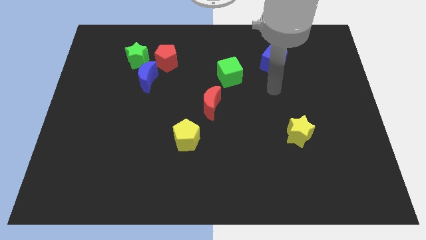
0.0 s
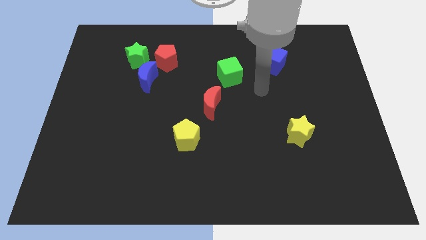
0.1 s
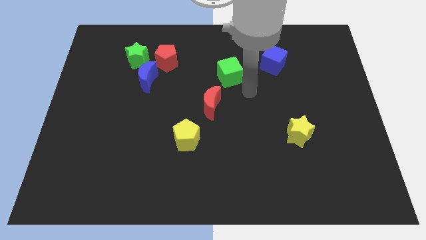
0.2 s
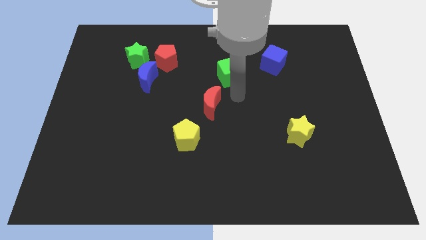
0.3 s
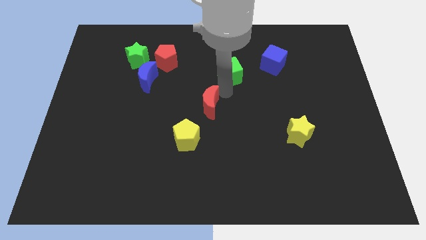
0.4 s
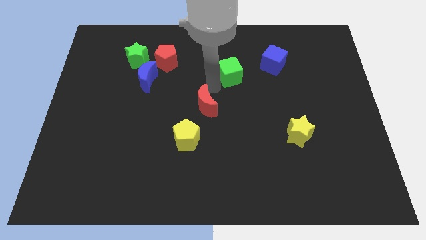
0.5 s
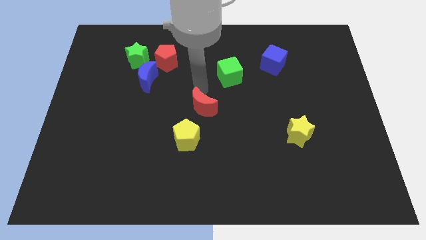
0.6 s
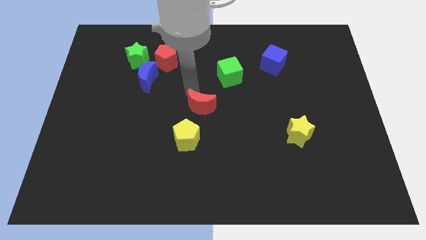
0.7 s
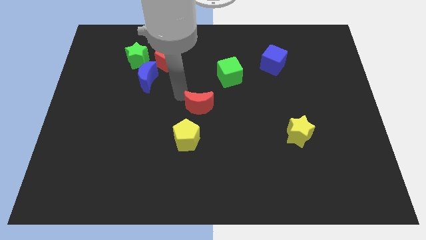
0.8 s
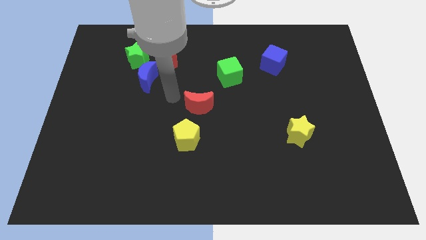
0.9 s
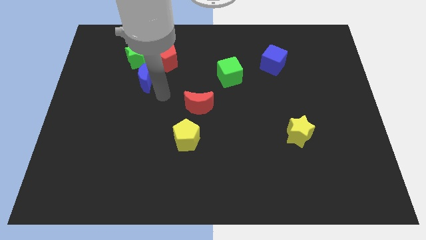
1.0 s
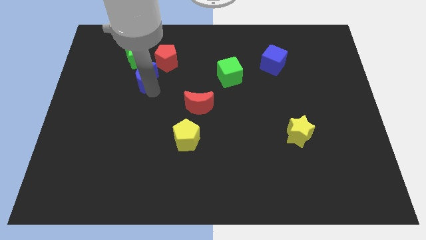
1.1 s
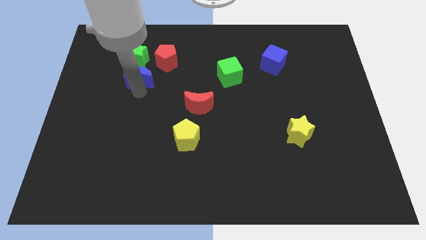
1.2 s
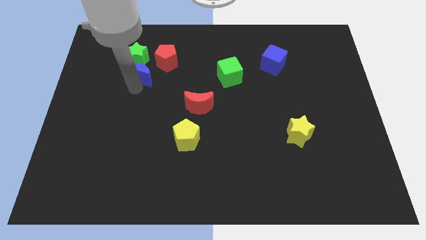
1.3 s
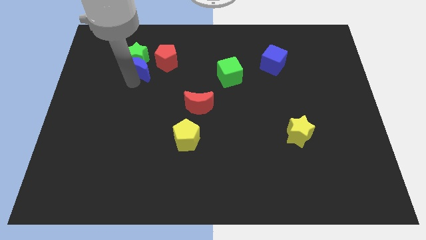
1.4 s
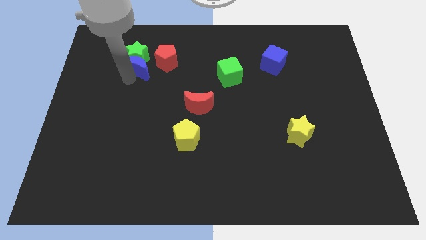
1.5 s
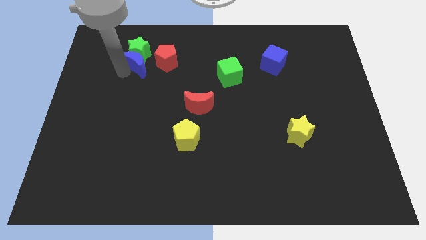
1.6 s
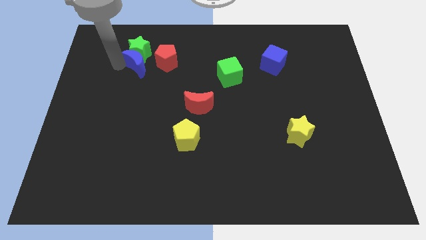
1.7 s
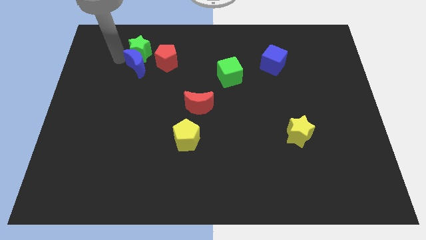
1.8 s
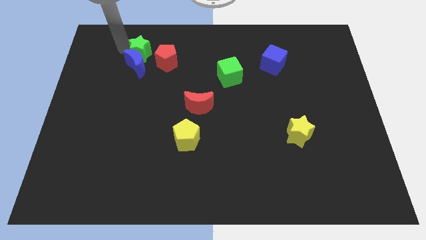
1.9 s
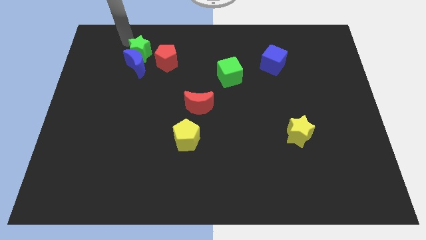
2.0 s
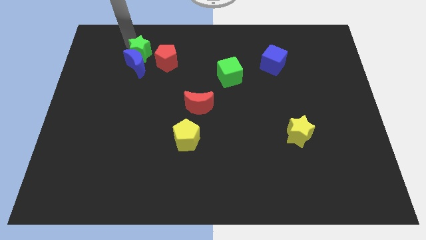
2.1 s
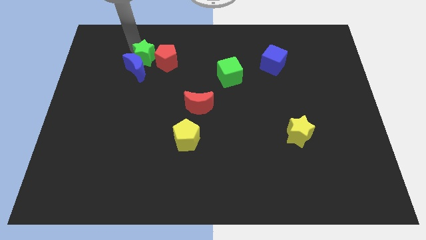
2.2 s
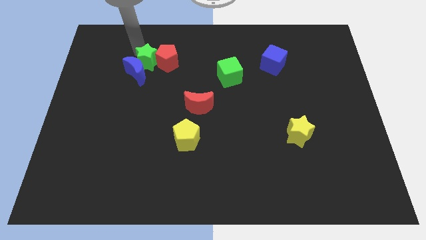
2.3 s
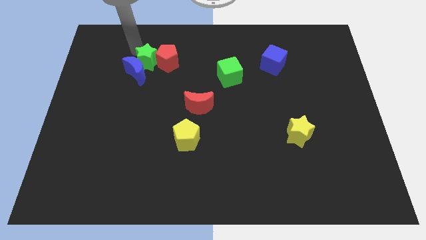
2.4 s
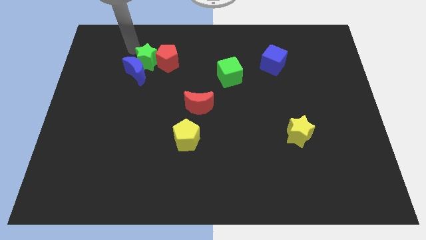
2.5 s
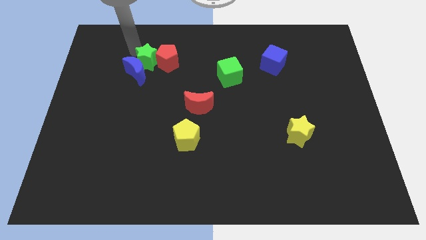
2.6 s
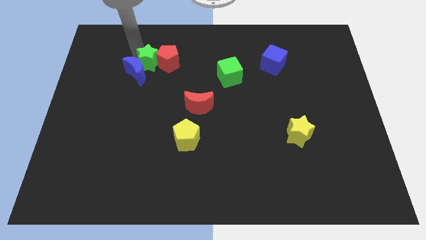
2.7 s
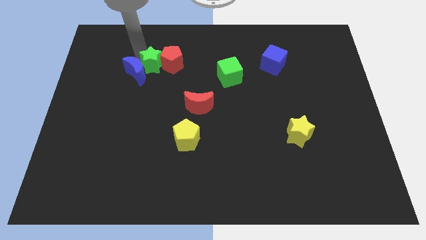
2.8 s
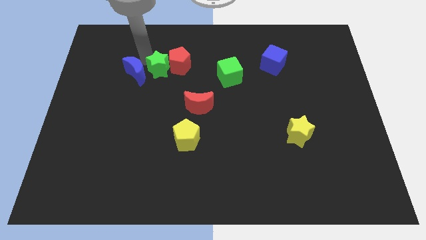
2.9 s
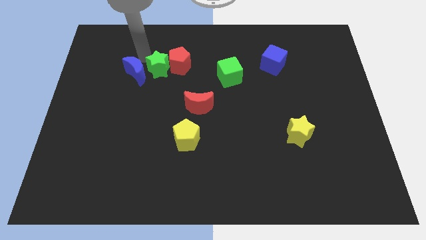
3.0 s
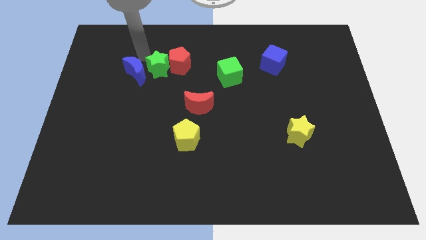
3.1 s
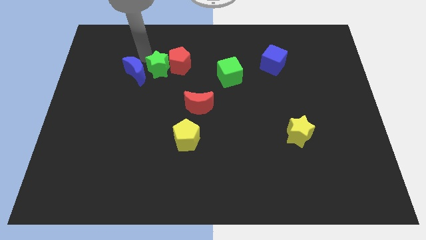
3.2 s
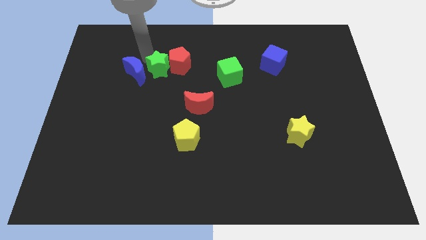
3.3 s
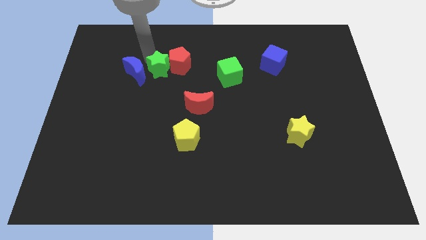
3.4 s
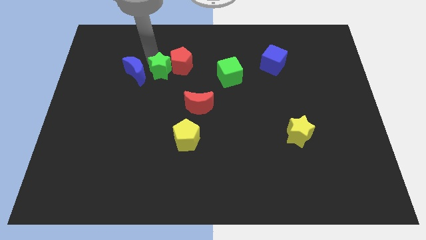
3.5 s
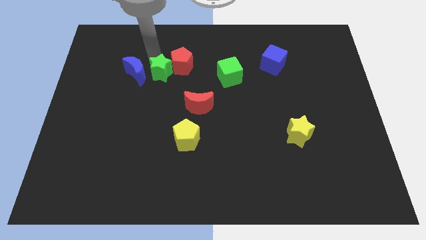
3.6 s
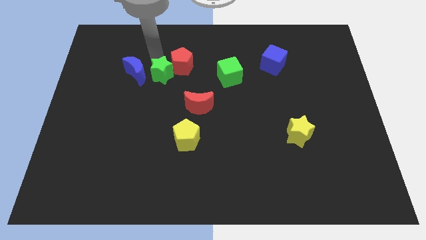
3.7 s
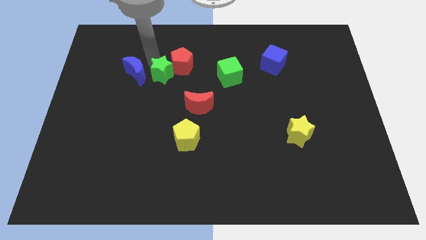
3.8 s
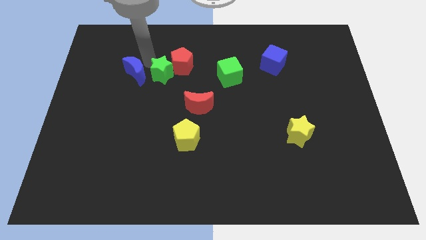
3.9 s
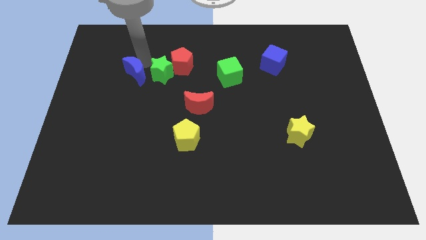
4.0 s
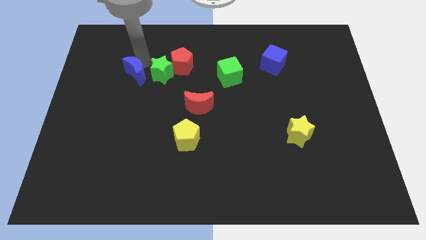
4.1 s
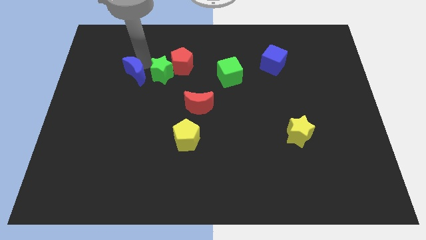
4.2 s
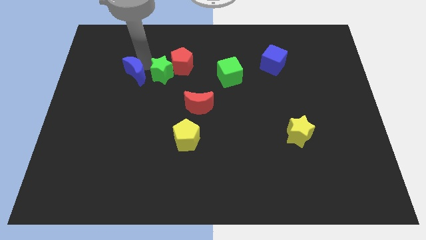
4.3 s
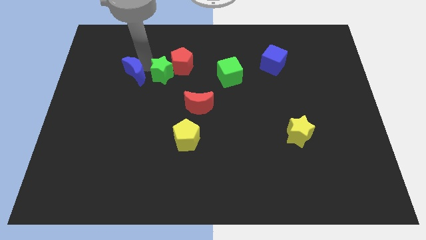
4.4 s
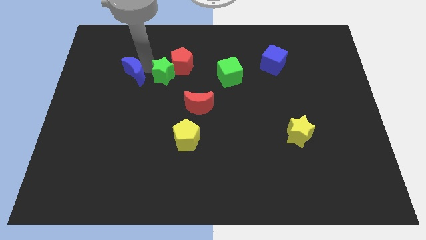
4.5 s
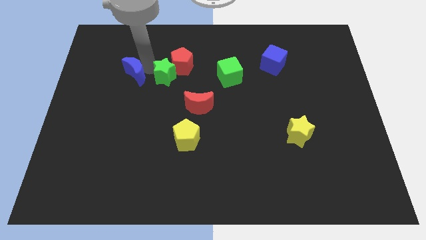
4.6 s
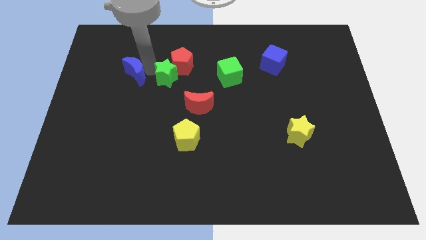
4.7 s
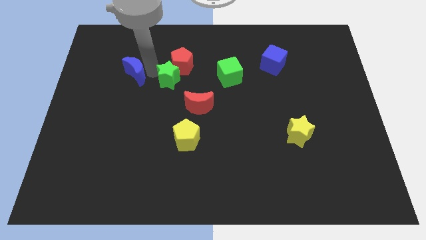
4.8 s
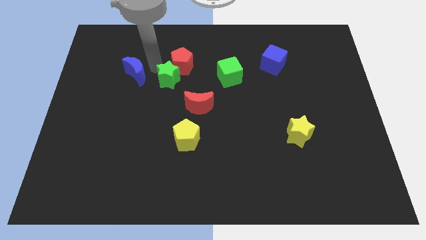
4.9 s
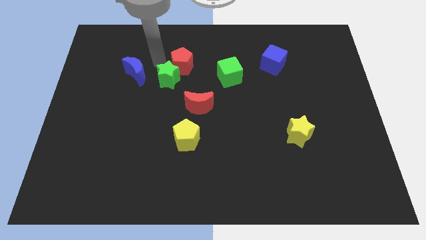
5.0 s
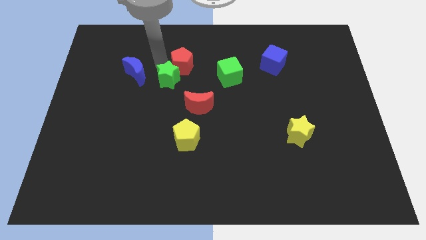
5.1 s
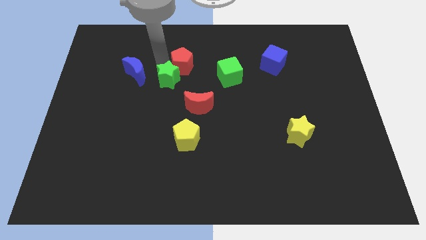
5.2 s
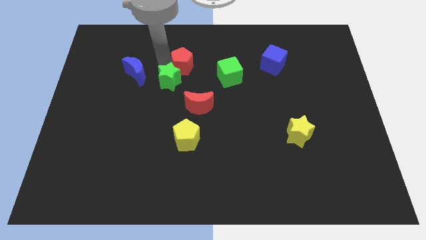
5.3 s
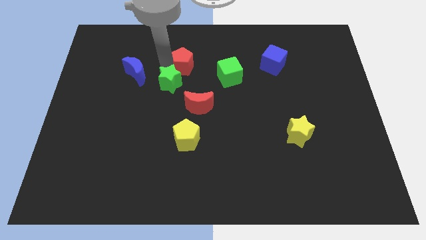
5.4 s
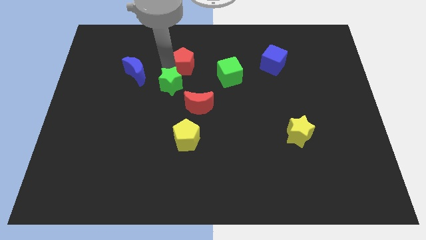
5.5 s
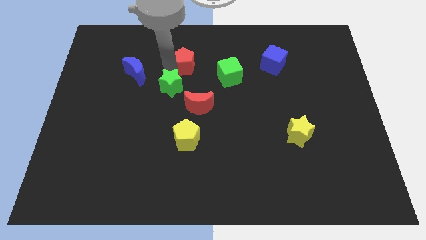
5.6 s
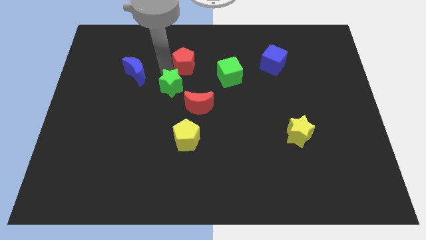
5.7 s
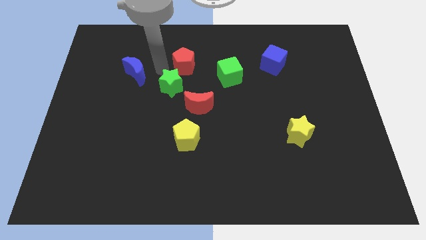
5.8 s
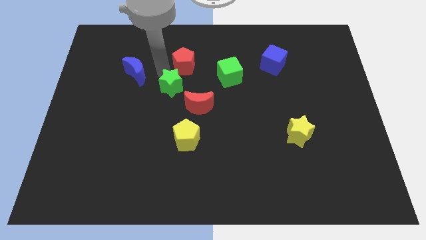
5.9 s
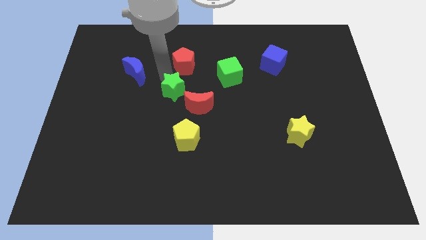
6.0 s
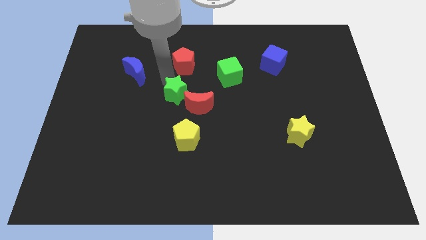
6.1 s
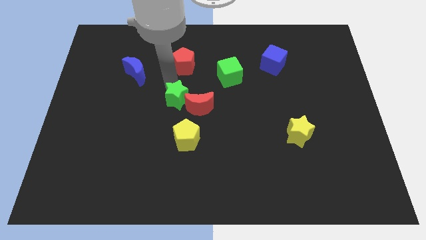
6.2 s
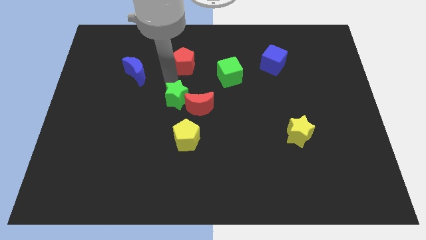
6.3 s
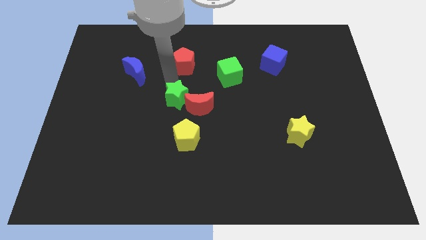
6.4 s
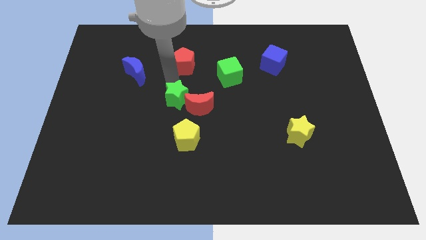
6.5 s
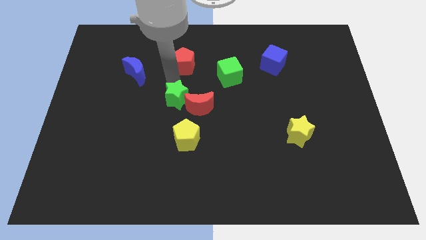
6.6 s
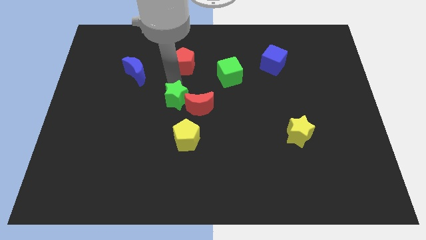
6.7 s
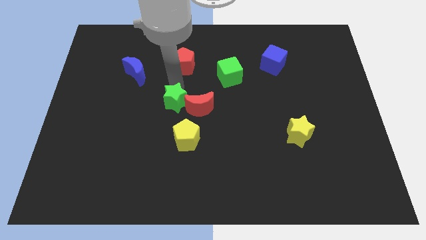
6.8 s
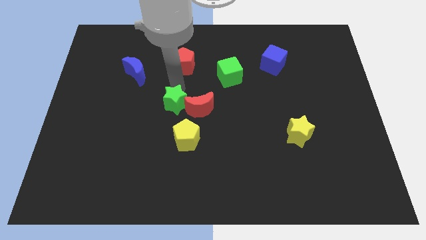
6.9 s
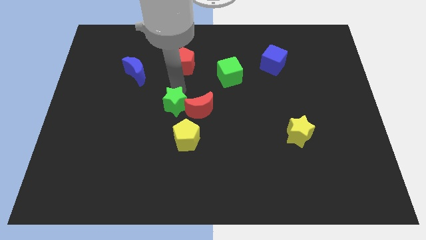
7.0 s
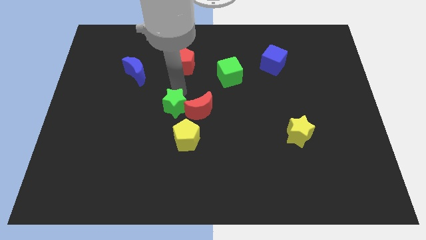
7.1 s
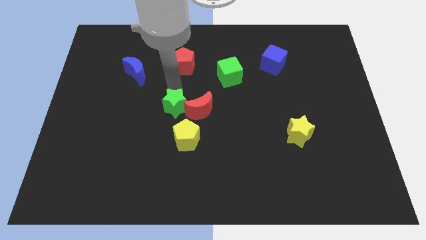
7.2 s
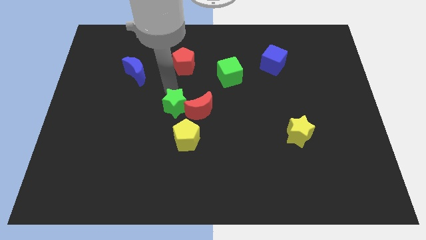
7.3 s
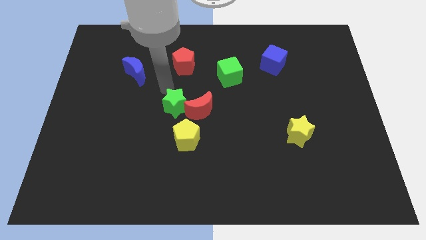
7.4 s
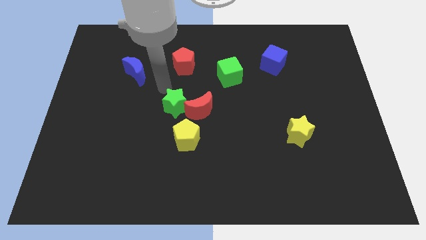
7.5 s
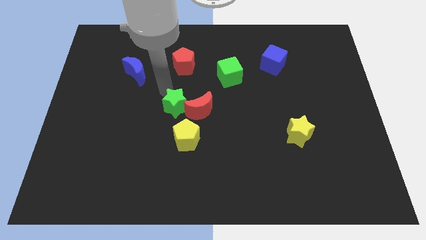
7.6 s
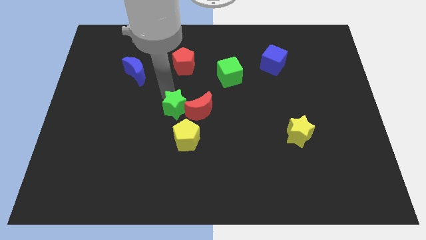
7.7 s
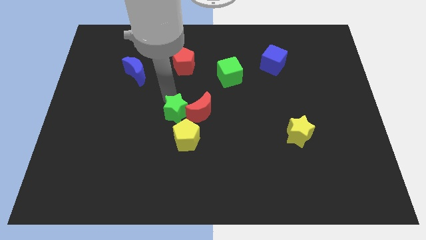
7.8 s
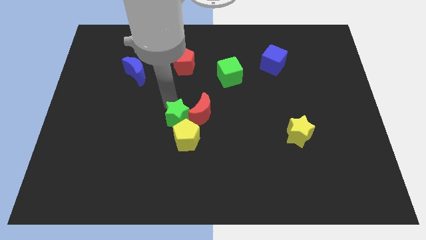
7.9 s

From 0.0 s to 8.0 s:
push the green star downwards and right
